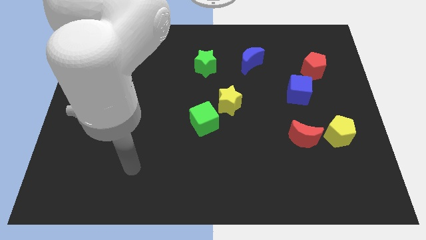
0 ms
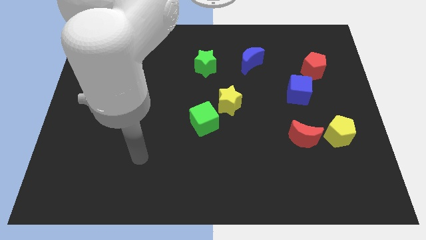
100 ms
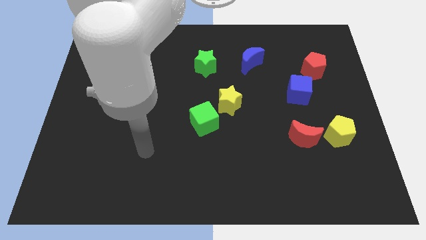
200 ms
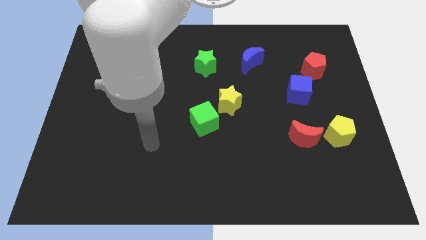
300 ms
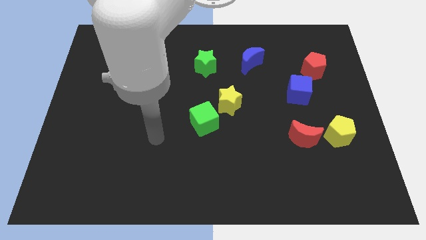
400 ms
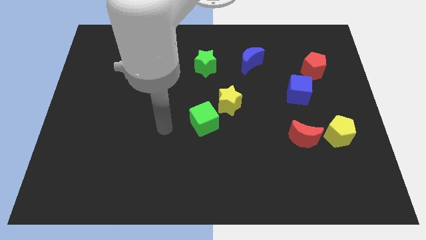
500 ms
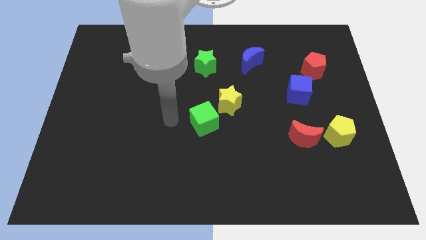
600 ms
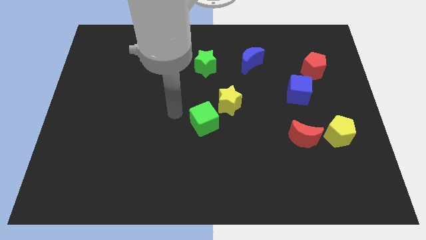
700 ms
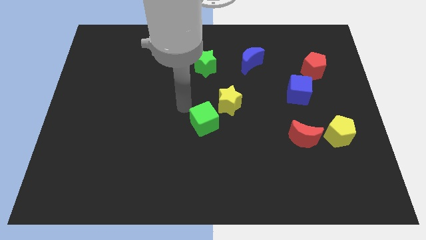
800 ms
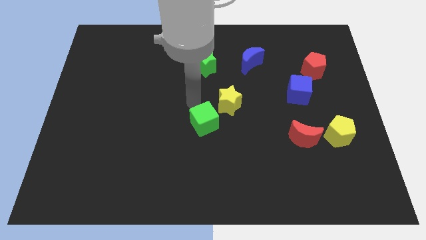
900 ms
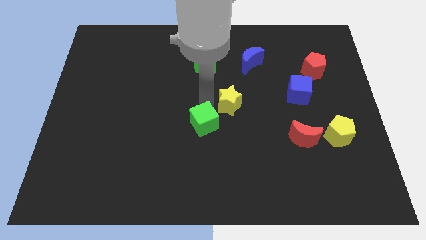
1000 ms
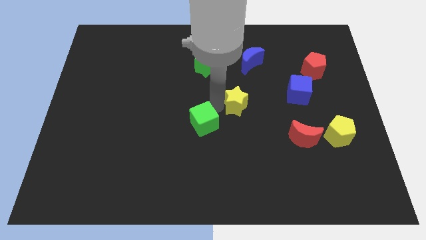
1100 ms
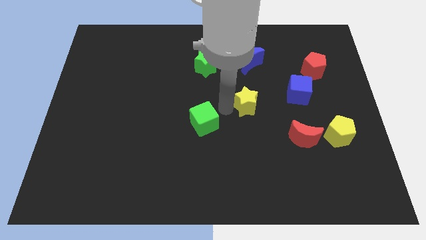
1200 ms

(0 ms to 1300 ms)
separate the green cube from the yellow star

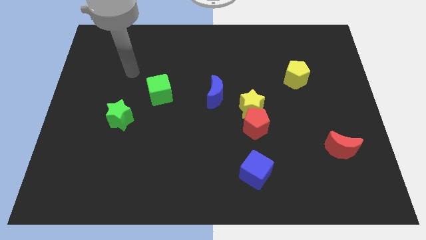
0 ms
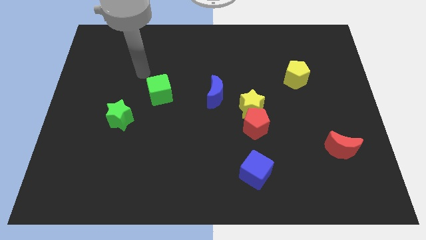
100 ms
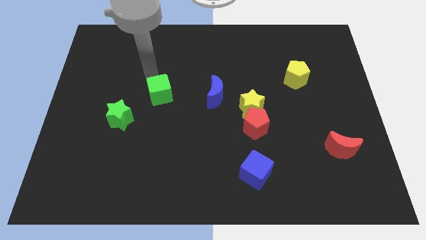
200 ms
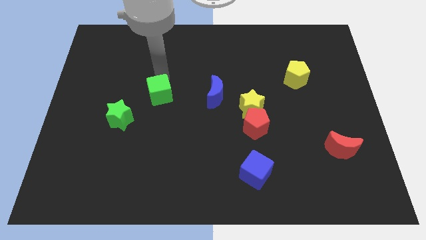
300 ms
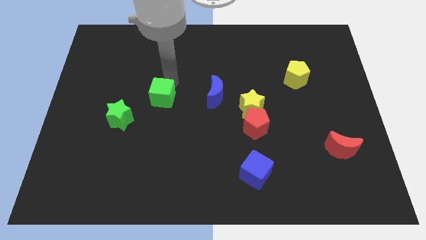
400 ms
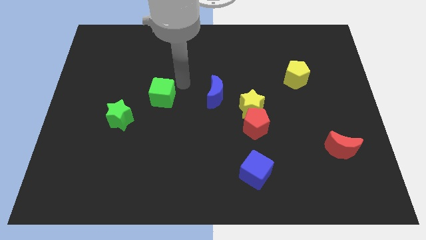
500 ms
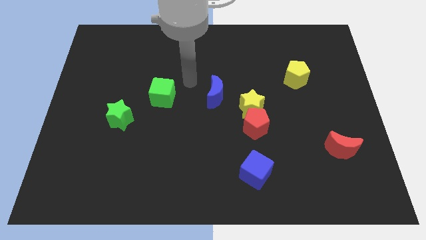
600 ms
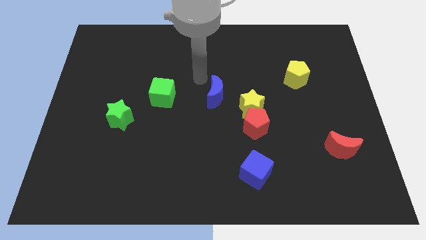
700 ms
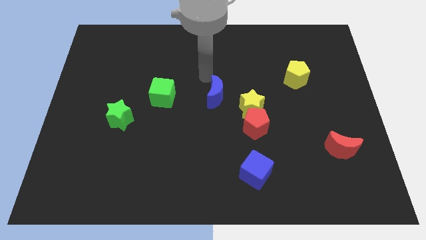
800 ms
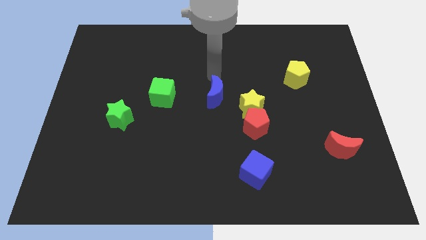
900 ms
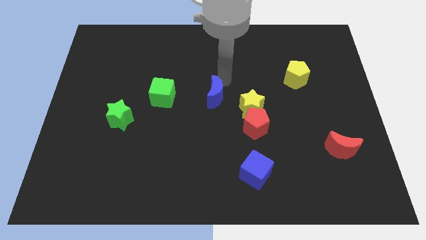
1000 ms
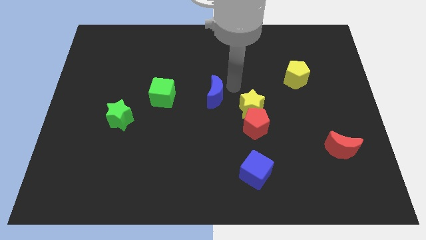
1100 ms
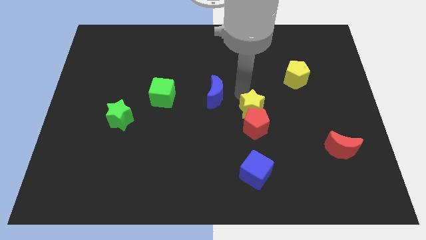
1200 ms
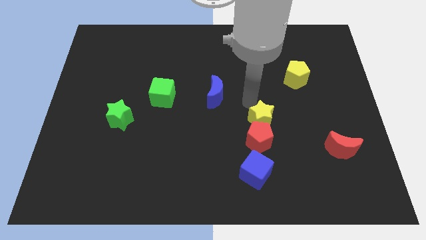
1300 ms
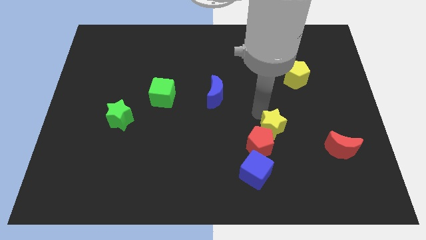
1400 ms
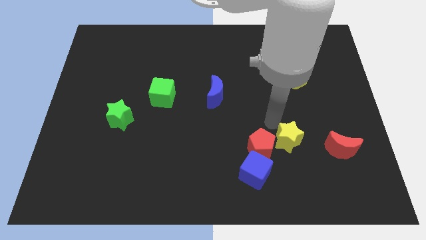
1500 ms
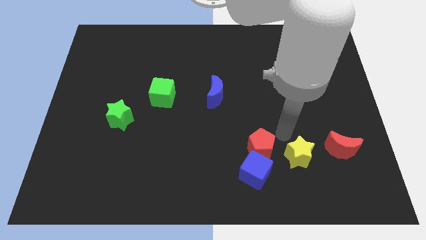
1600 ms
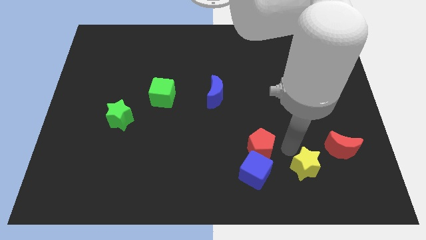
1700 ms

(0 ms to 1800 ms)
move the red pentagon away from the yellow star

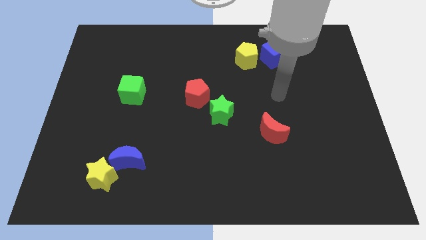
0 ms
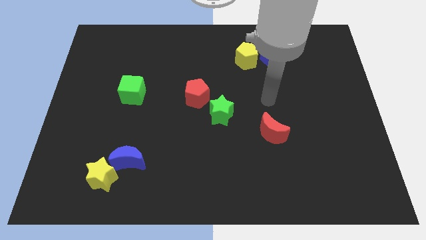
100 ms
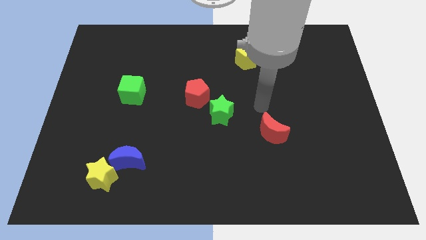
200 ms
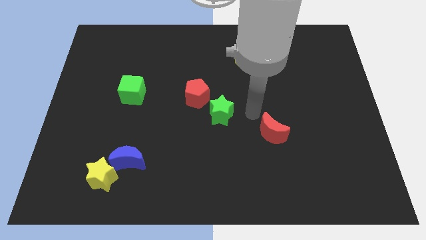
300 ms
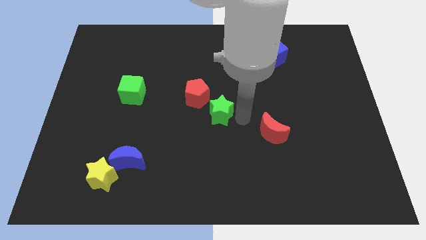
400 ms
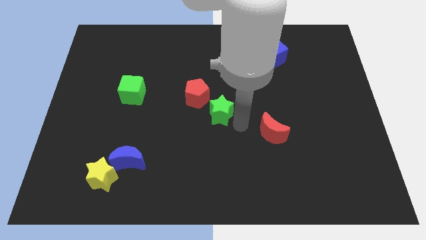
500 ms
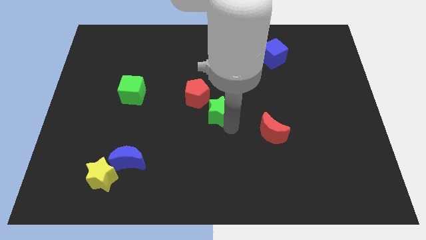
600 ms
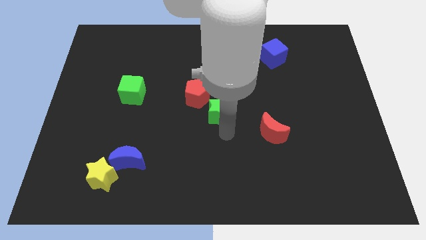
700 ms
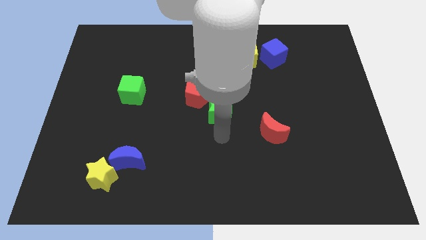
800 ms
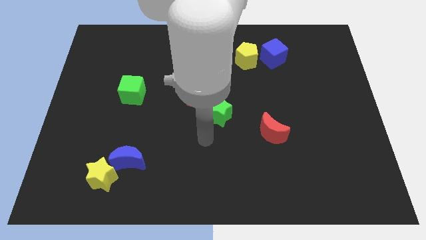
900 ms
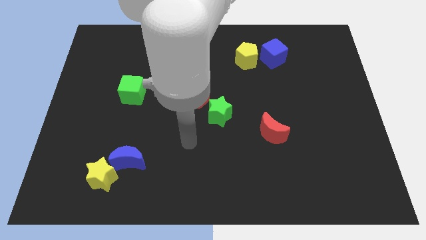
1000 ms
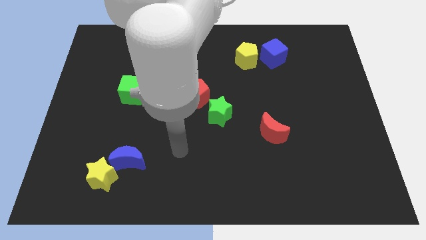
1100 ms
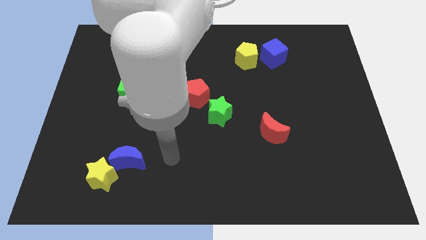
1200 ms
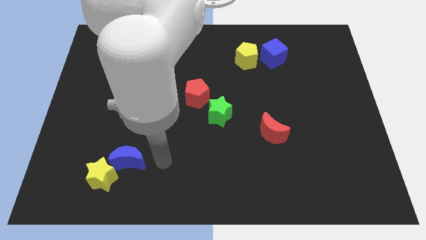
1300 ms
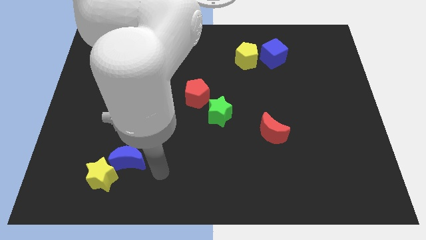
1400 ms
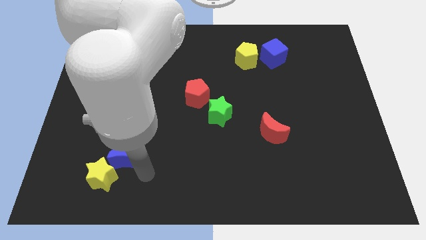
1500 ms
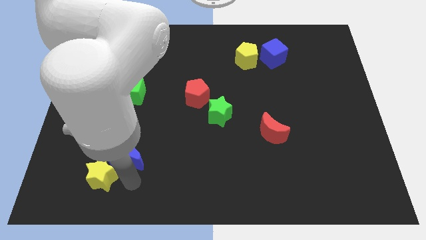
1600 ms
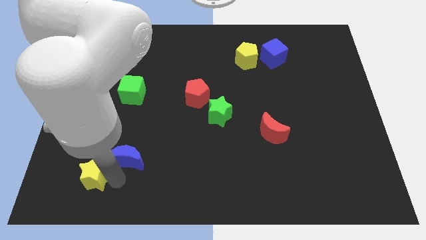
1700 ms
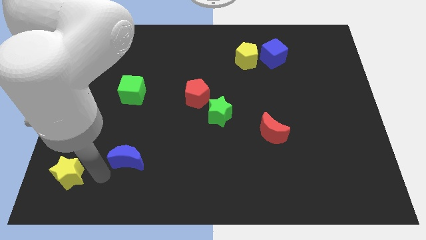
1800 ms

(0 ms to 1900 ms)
separate the blue moon from the yellow star

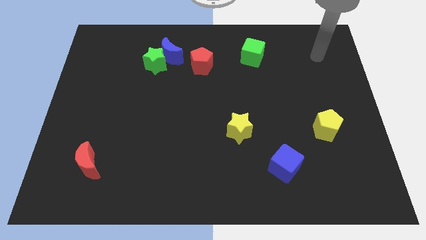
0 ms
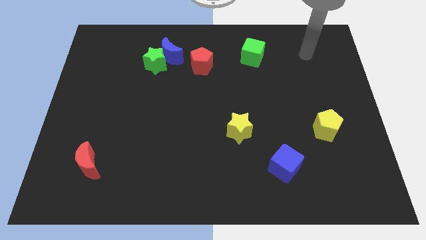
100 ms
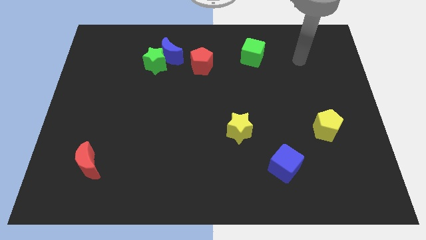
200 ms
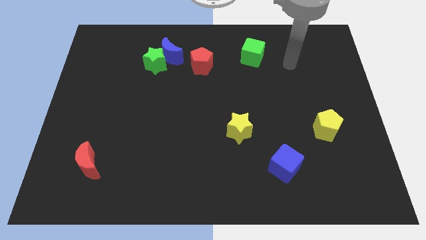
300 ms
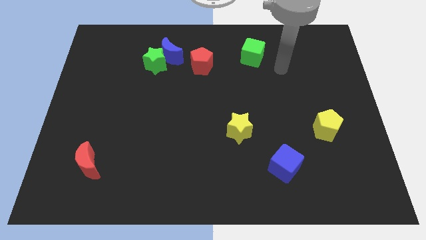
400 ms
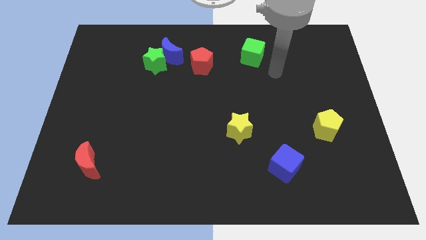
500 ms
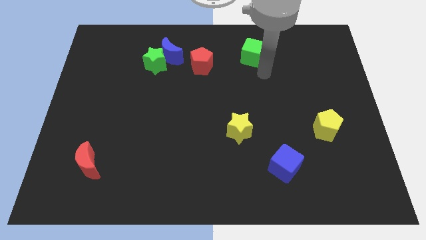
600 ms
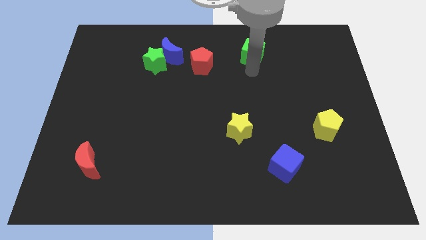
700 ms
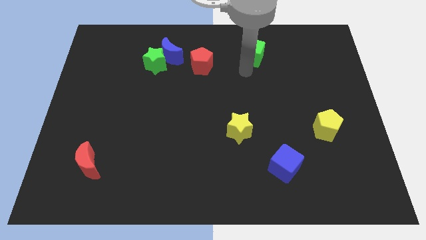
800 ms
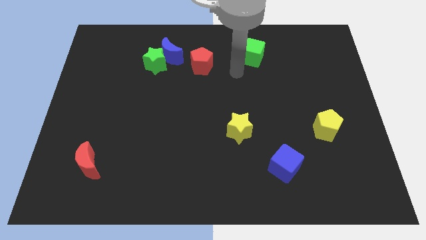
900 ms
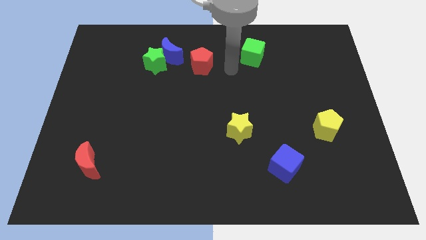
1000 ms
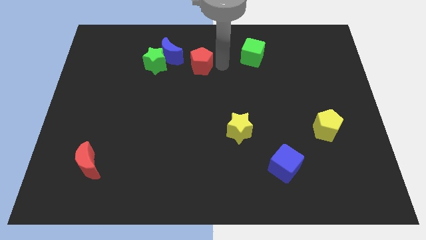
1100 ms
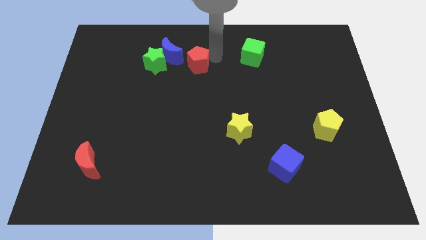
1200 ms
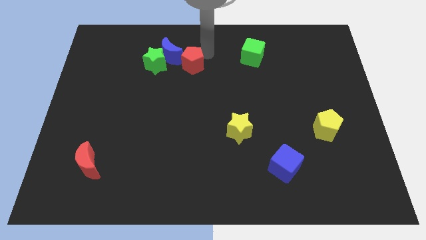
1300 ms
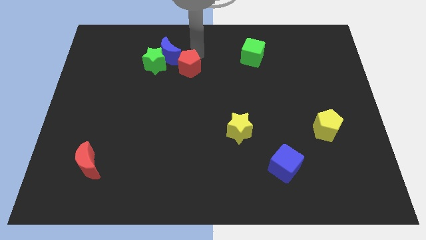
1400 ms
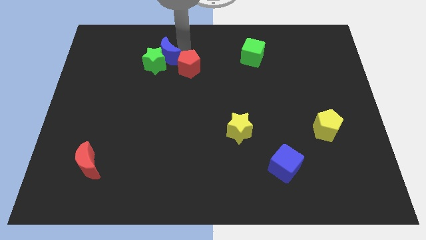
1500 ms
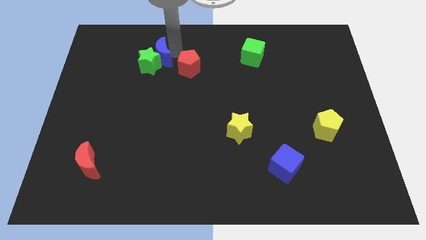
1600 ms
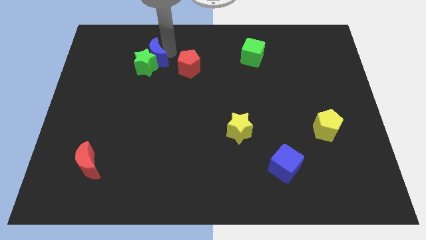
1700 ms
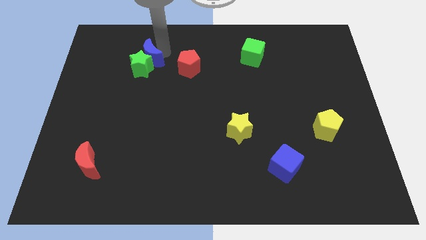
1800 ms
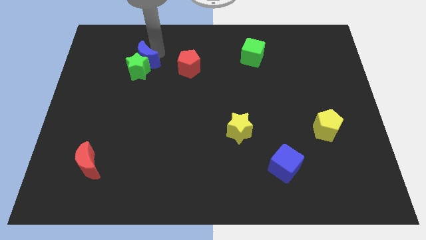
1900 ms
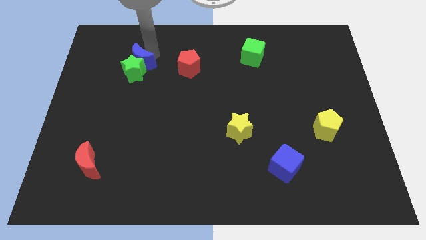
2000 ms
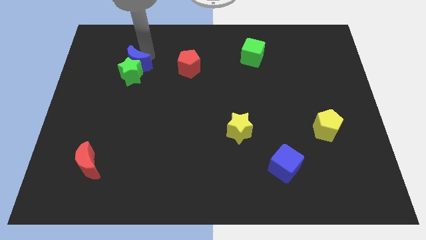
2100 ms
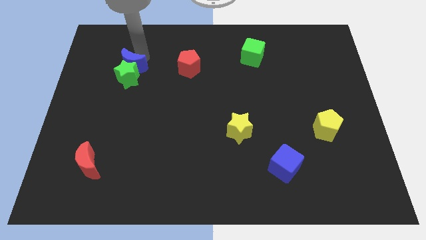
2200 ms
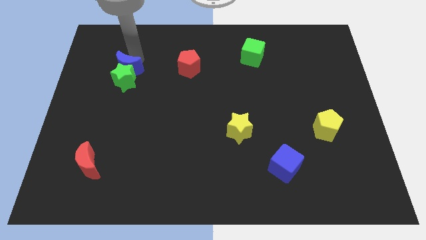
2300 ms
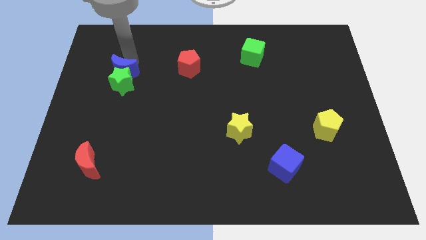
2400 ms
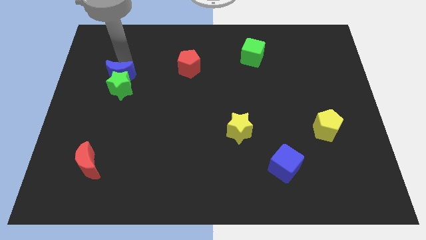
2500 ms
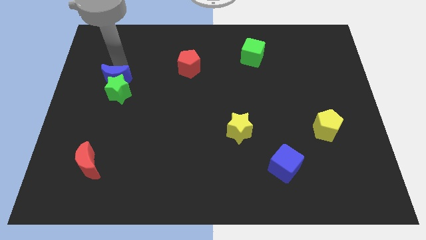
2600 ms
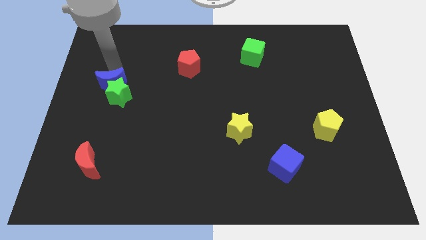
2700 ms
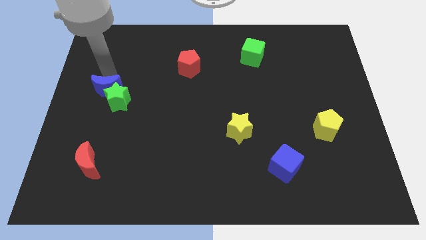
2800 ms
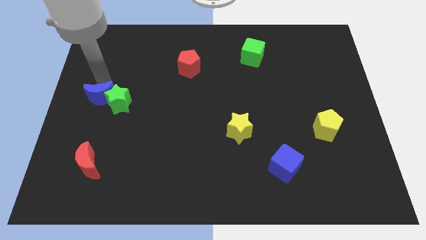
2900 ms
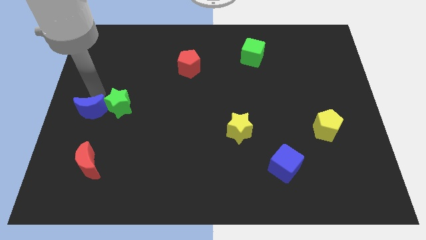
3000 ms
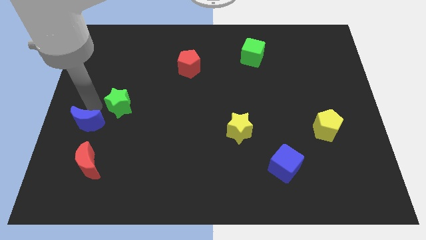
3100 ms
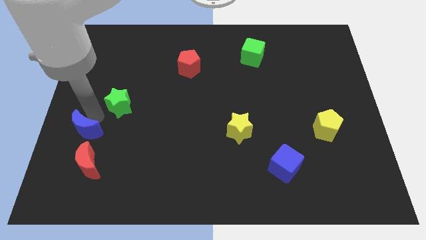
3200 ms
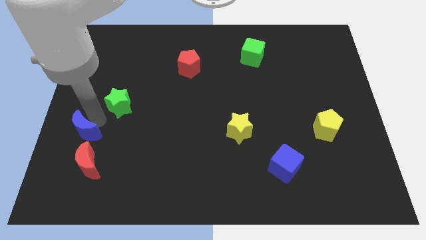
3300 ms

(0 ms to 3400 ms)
pull the green star apart from the blue moon

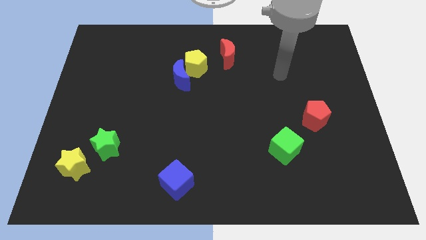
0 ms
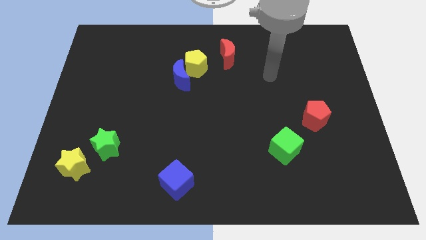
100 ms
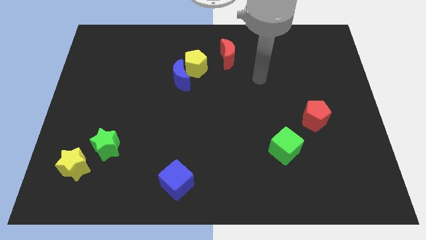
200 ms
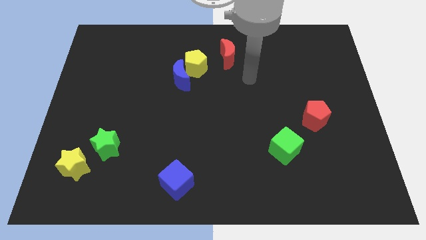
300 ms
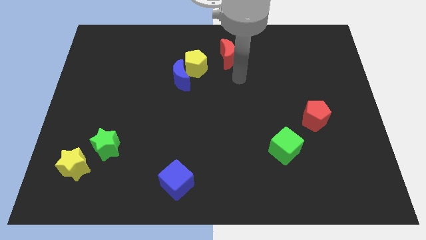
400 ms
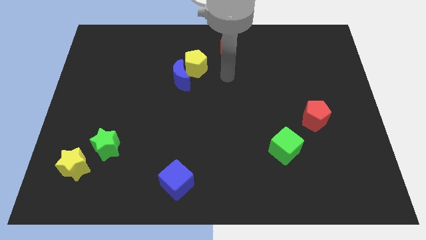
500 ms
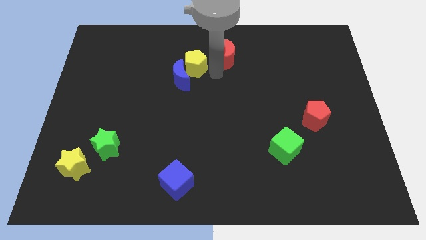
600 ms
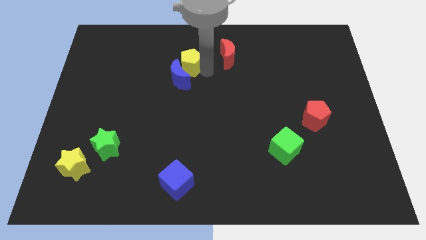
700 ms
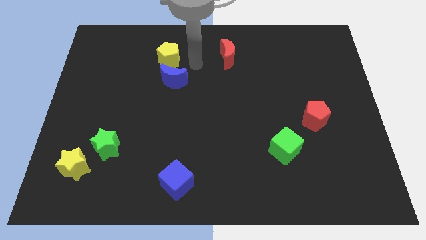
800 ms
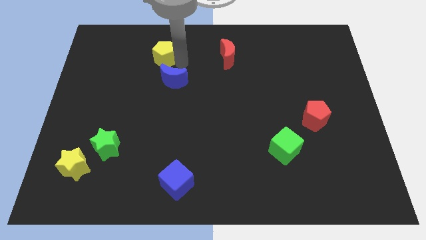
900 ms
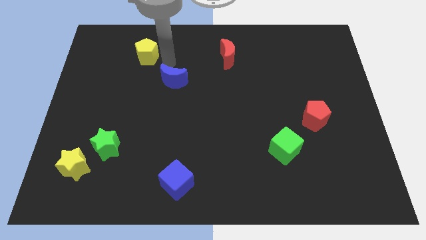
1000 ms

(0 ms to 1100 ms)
pull the blue moon apart from the yellow pentagon
